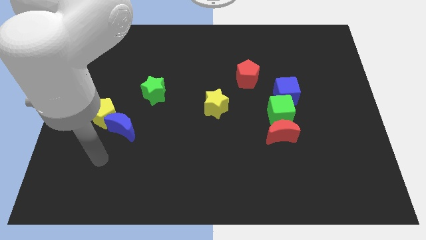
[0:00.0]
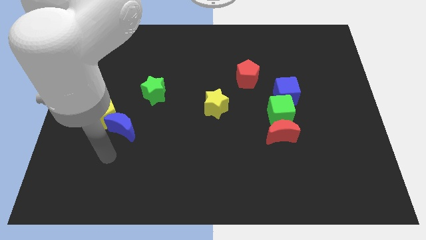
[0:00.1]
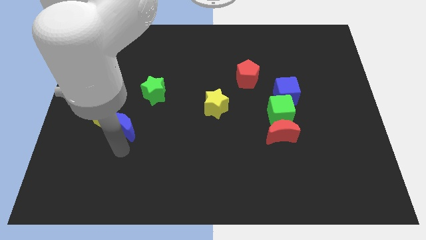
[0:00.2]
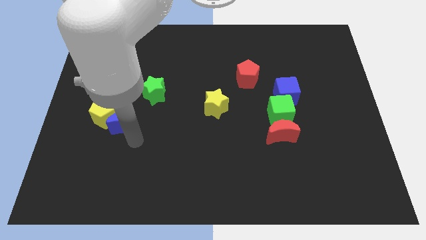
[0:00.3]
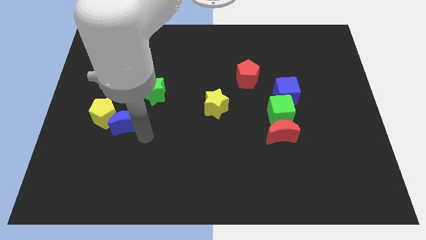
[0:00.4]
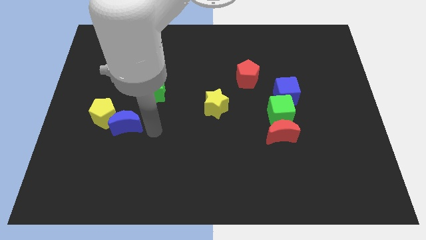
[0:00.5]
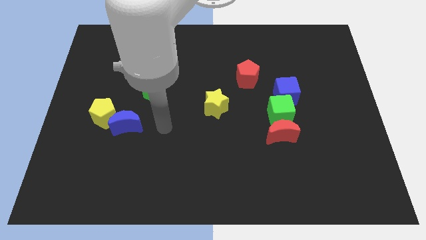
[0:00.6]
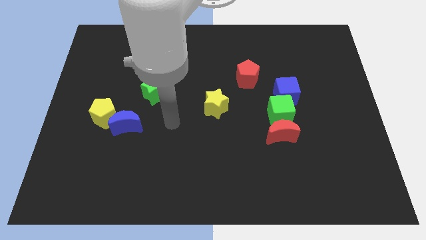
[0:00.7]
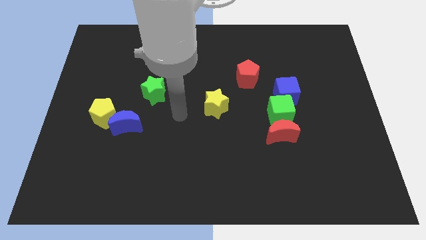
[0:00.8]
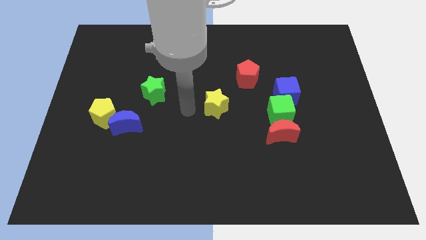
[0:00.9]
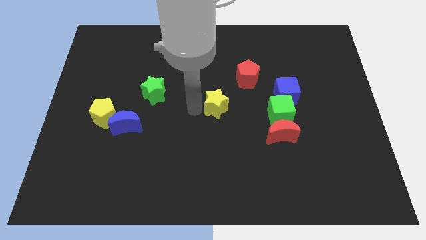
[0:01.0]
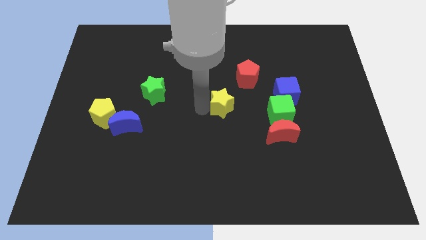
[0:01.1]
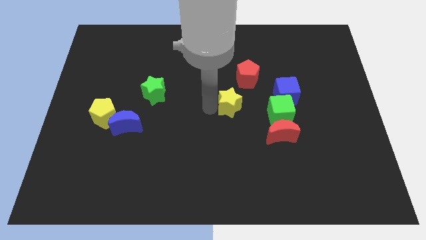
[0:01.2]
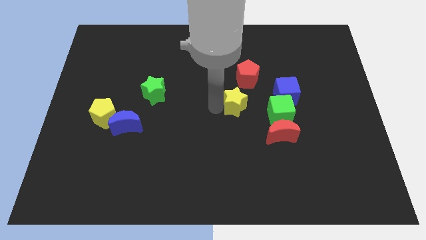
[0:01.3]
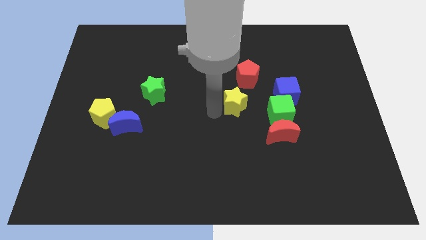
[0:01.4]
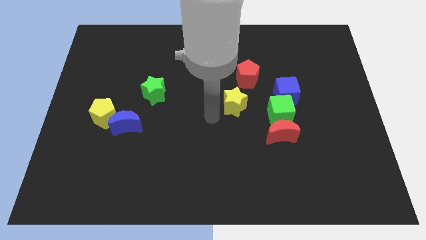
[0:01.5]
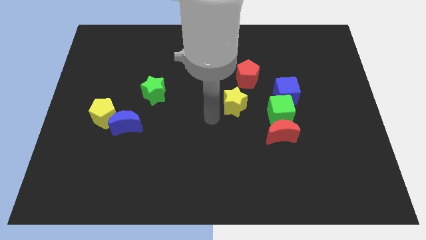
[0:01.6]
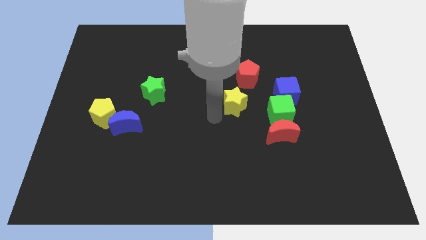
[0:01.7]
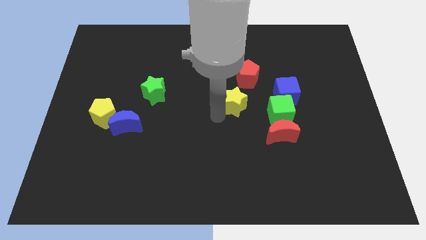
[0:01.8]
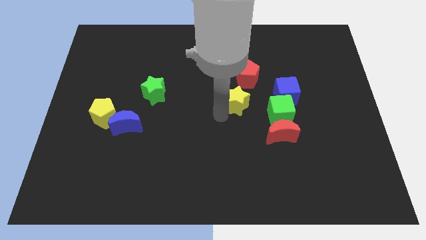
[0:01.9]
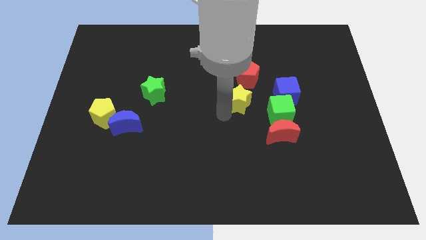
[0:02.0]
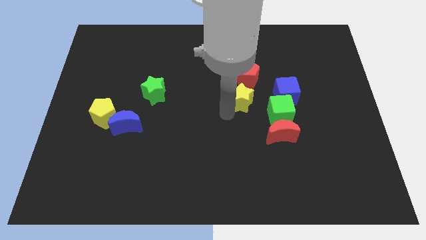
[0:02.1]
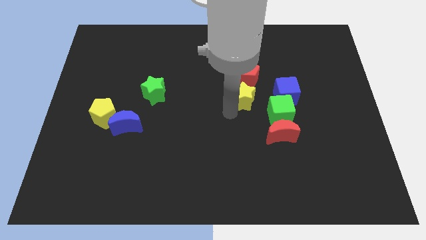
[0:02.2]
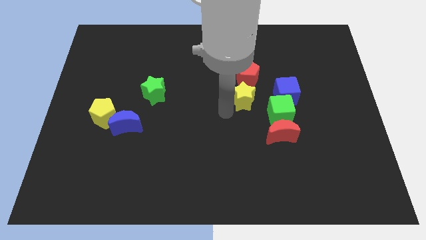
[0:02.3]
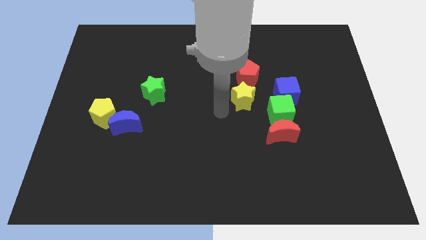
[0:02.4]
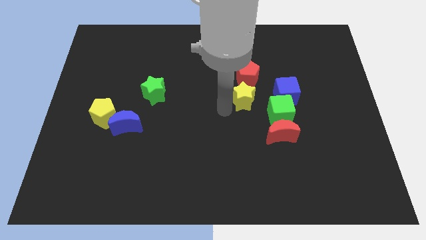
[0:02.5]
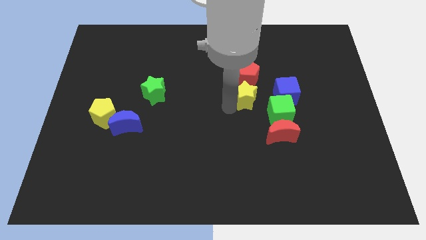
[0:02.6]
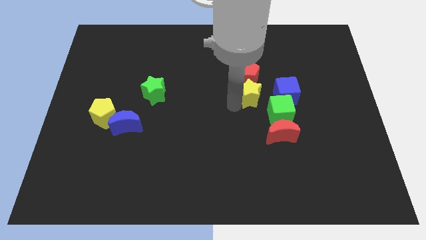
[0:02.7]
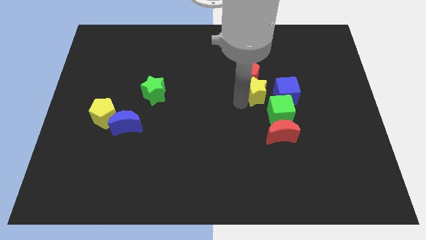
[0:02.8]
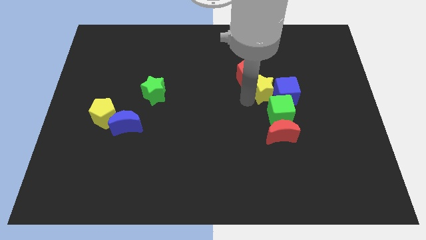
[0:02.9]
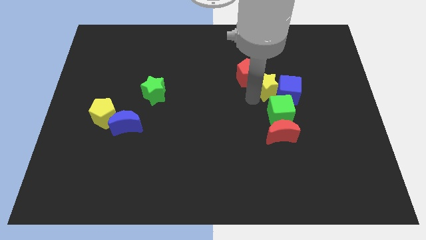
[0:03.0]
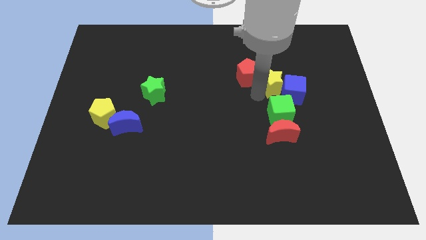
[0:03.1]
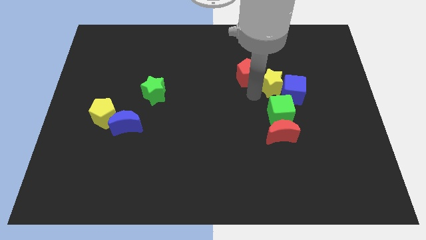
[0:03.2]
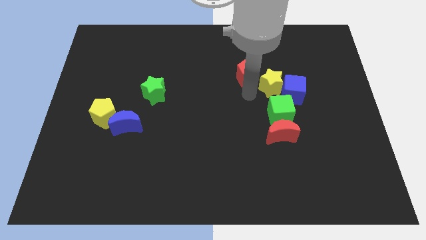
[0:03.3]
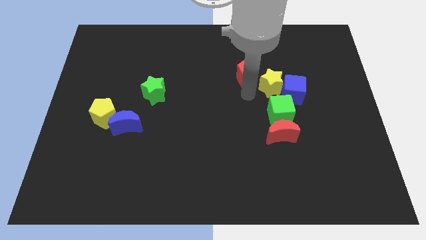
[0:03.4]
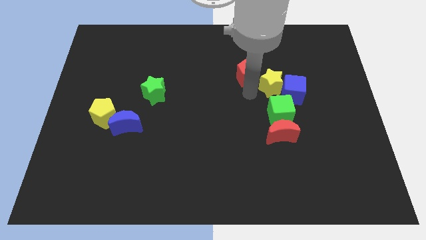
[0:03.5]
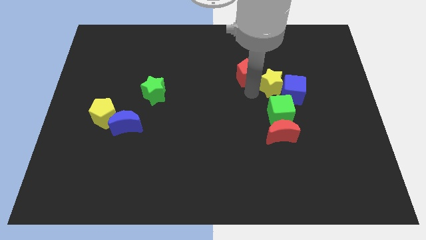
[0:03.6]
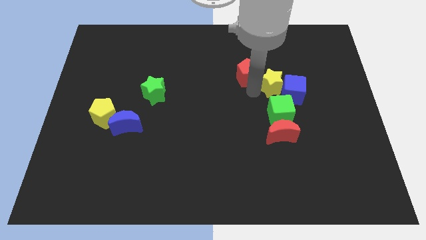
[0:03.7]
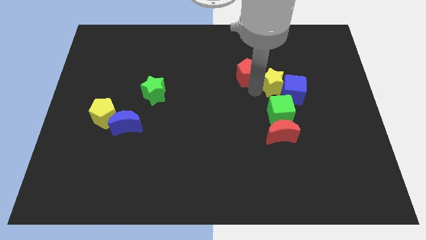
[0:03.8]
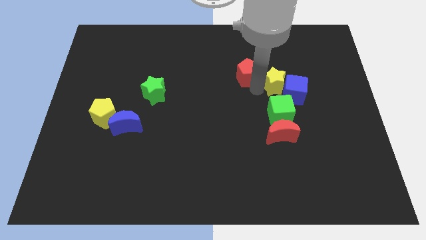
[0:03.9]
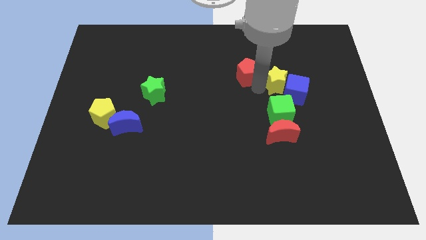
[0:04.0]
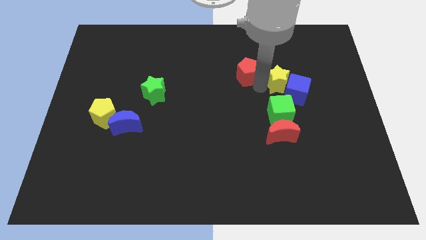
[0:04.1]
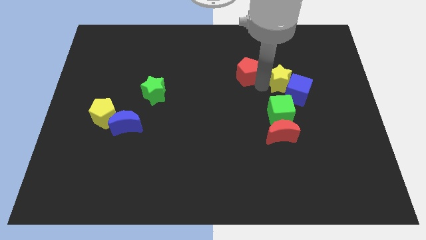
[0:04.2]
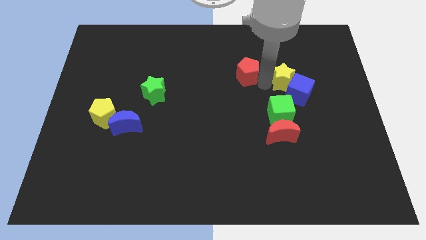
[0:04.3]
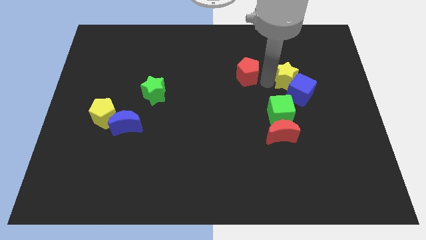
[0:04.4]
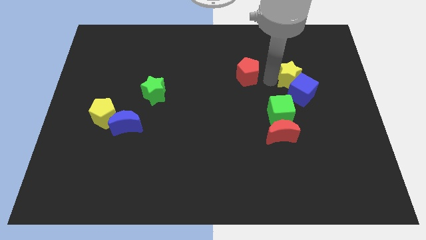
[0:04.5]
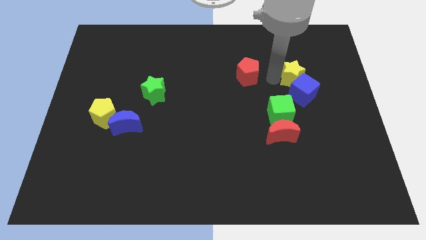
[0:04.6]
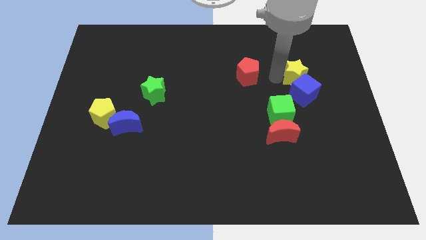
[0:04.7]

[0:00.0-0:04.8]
push the yellow star diagonally up and to the right of the blue cube

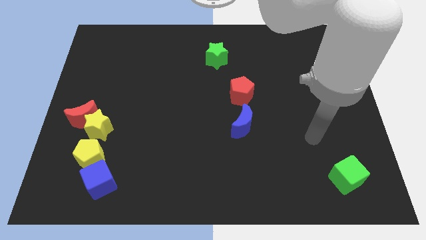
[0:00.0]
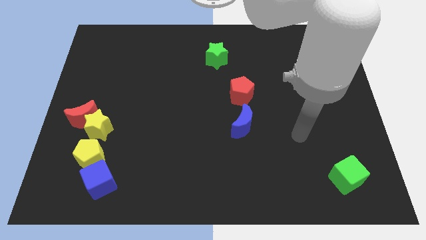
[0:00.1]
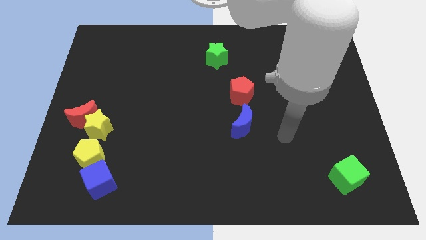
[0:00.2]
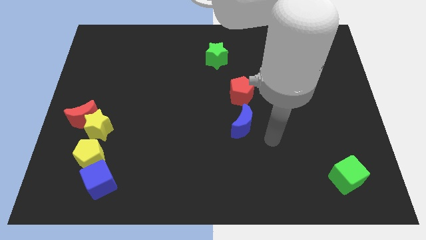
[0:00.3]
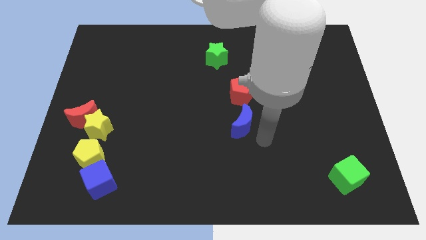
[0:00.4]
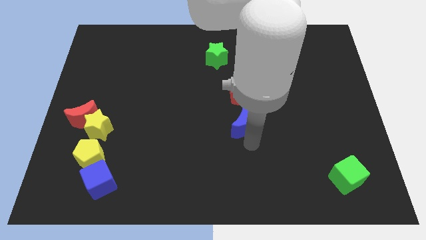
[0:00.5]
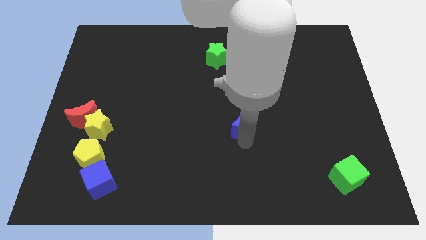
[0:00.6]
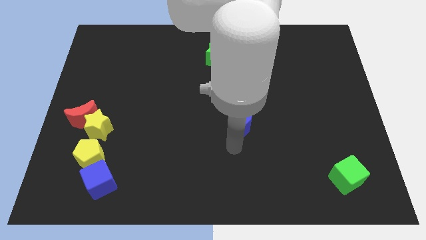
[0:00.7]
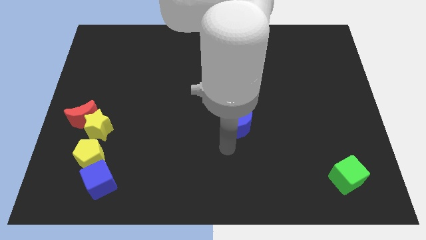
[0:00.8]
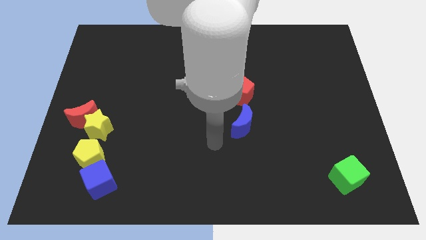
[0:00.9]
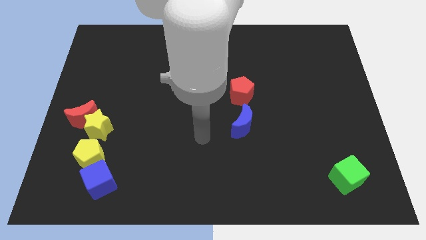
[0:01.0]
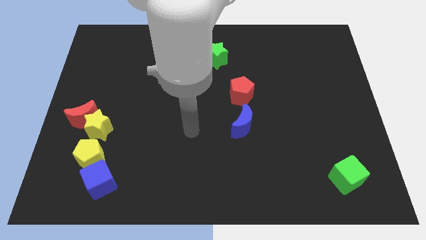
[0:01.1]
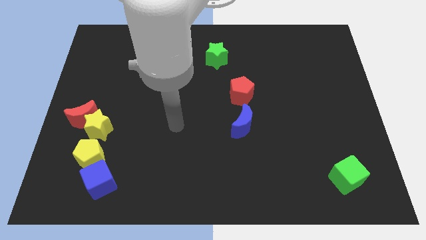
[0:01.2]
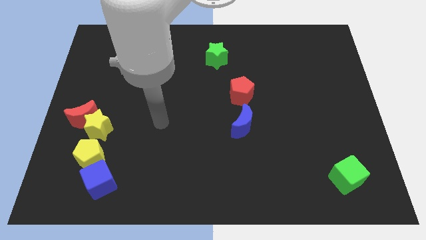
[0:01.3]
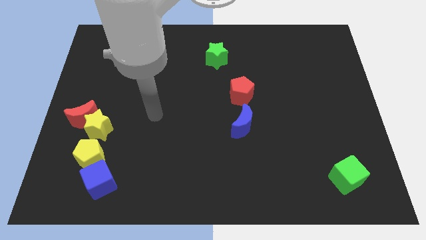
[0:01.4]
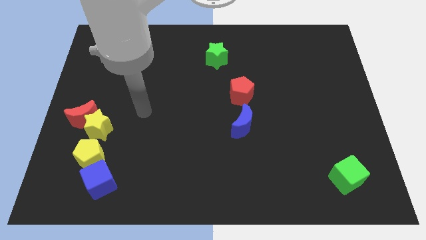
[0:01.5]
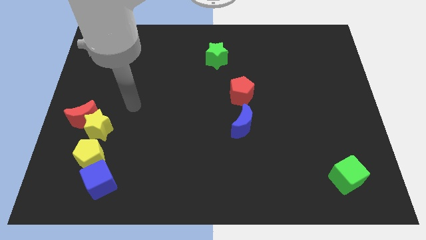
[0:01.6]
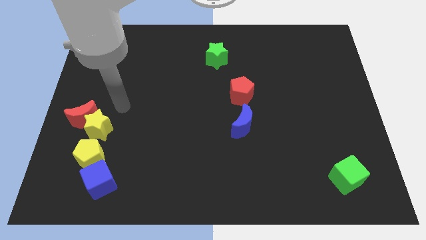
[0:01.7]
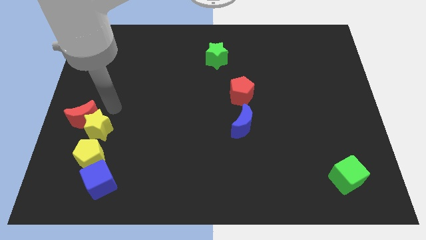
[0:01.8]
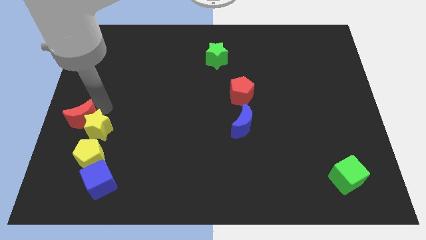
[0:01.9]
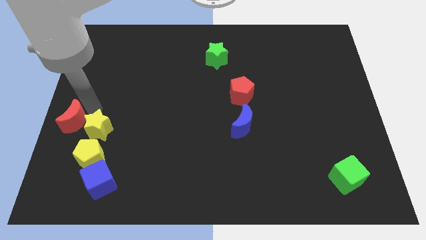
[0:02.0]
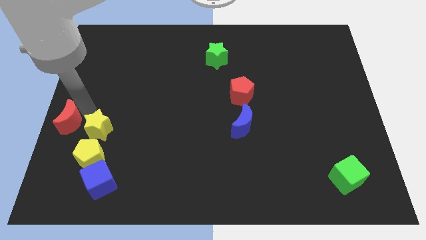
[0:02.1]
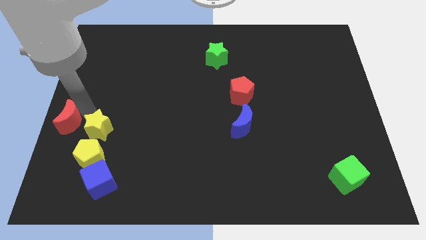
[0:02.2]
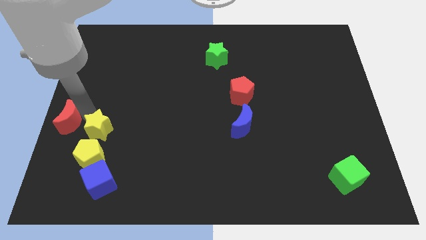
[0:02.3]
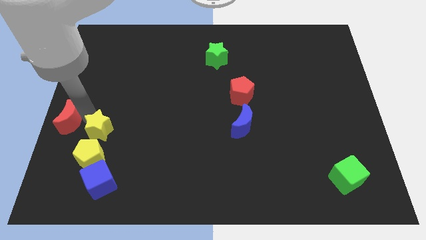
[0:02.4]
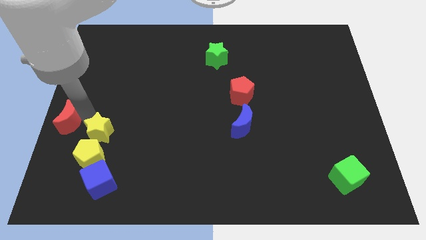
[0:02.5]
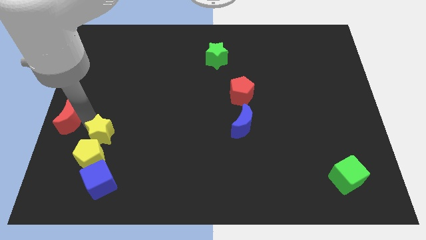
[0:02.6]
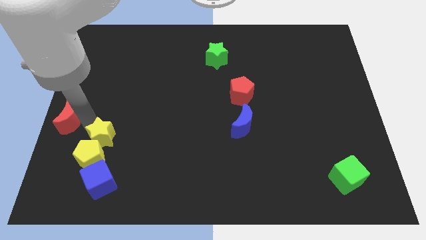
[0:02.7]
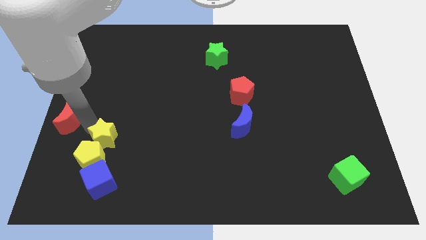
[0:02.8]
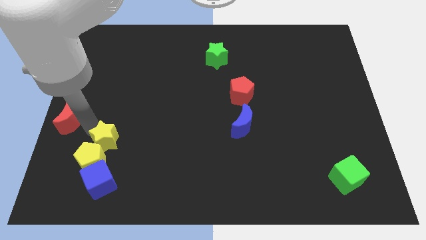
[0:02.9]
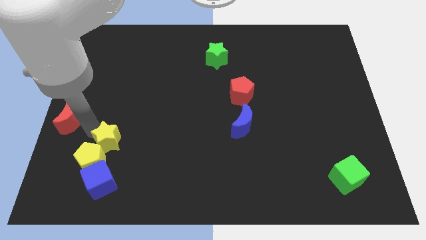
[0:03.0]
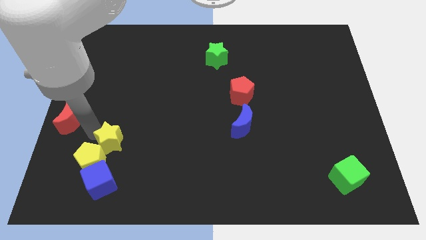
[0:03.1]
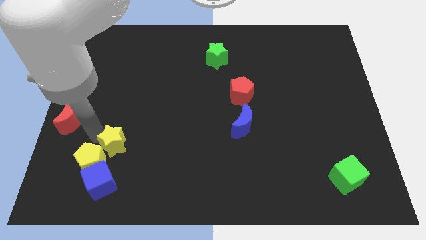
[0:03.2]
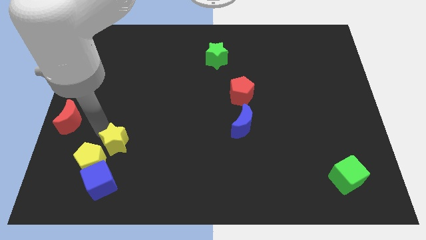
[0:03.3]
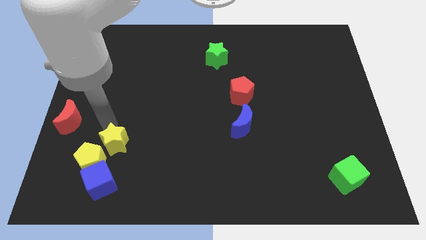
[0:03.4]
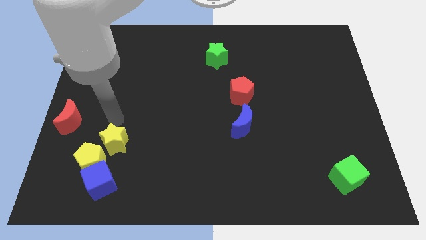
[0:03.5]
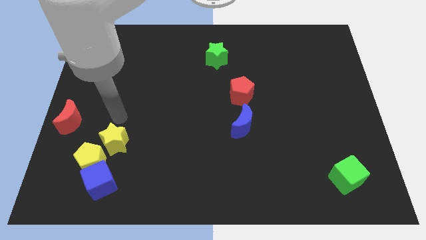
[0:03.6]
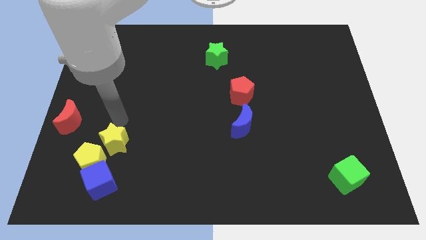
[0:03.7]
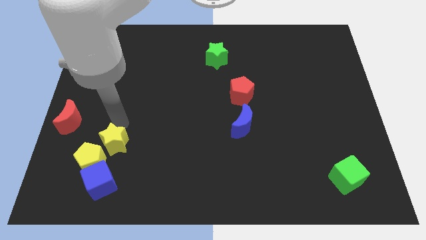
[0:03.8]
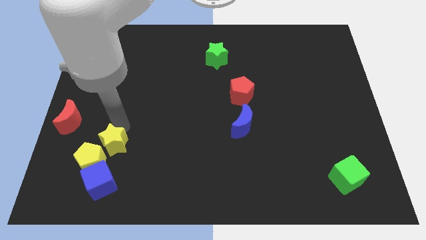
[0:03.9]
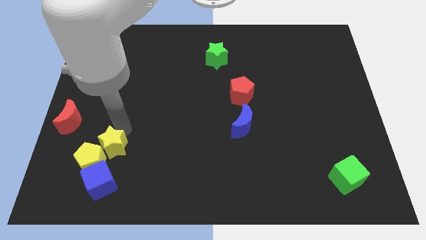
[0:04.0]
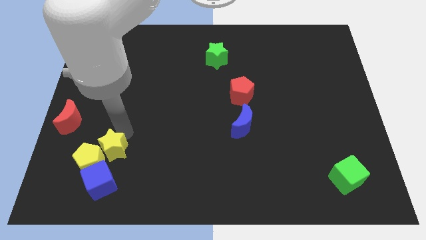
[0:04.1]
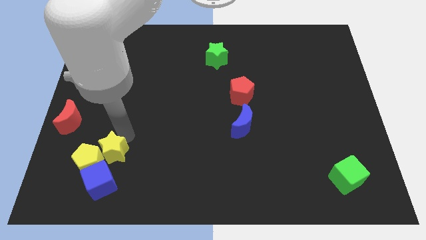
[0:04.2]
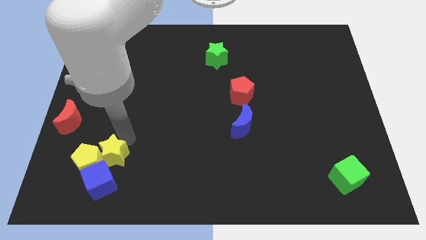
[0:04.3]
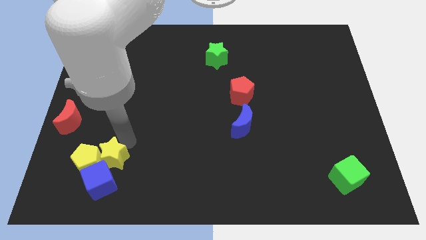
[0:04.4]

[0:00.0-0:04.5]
put the yellow star diagonally down and to the right of the yellow pentagon
